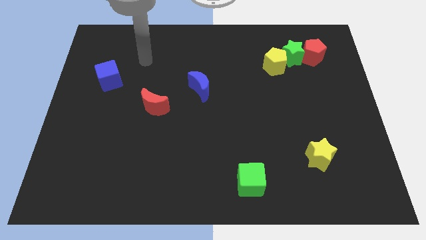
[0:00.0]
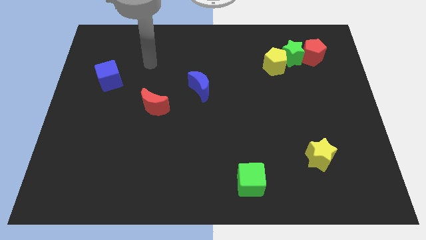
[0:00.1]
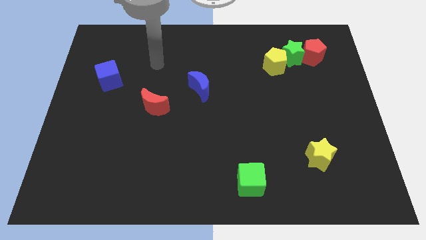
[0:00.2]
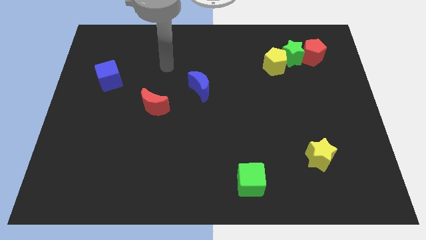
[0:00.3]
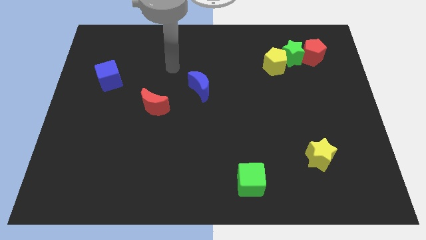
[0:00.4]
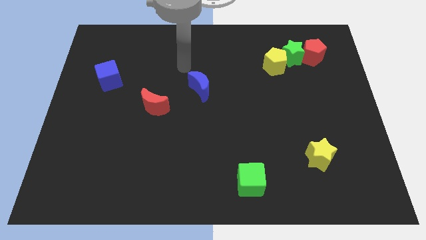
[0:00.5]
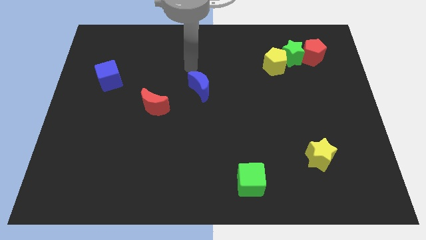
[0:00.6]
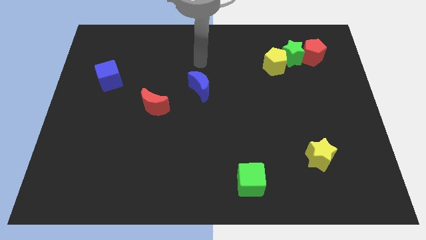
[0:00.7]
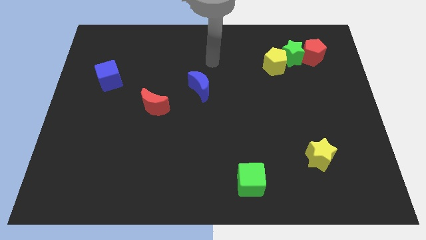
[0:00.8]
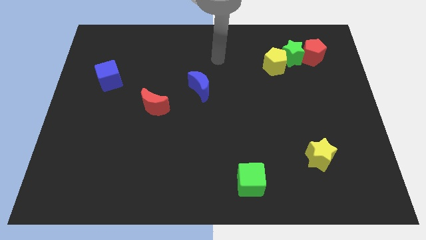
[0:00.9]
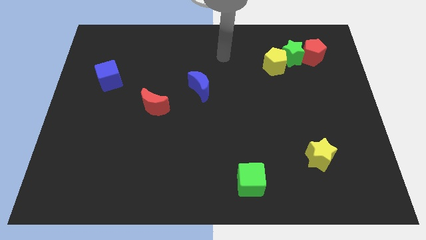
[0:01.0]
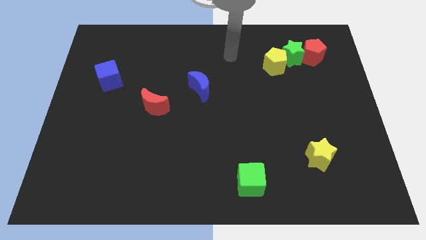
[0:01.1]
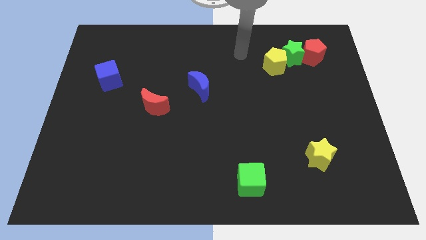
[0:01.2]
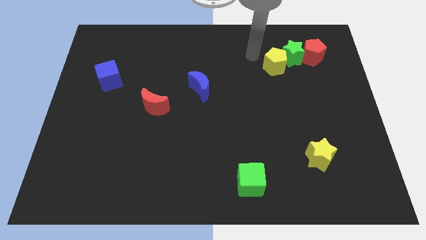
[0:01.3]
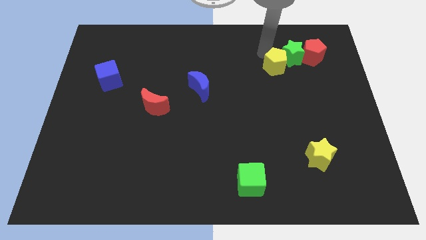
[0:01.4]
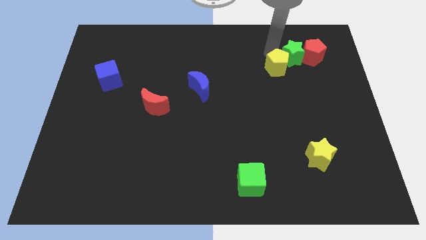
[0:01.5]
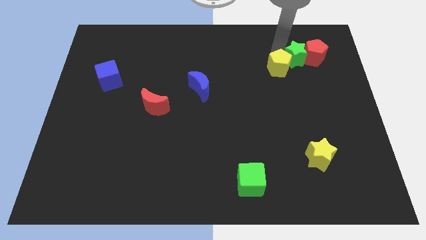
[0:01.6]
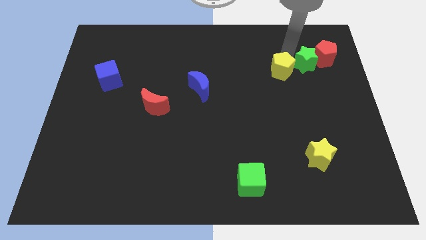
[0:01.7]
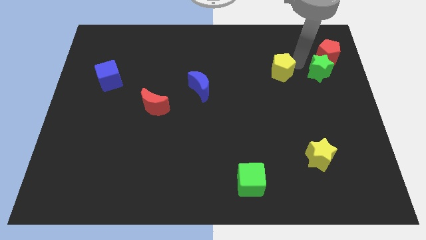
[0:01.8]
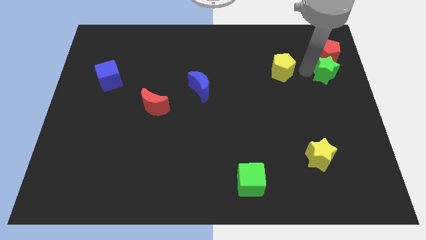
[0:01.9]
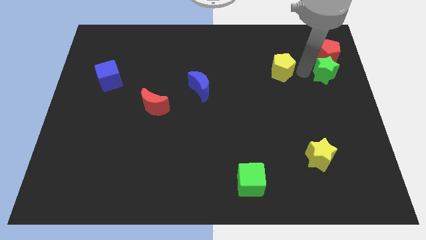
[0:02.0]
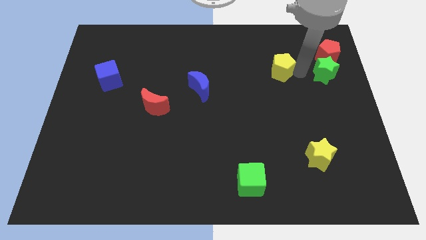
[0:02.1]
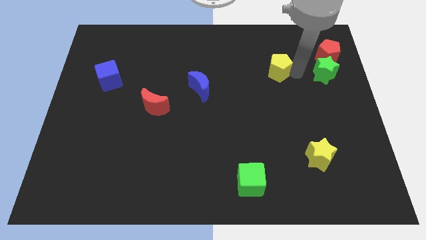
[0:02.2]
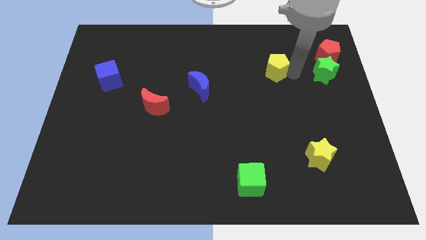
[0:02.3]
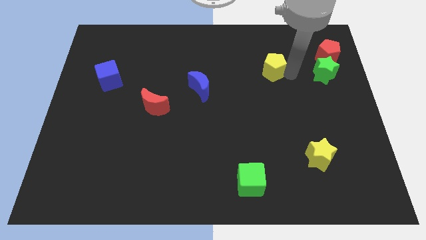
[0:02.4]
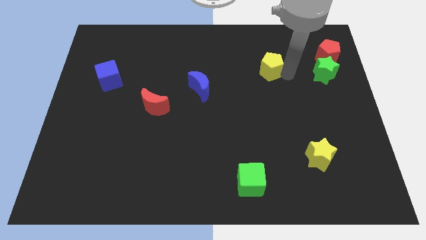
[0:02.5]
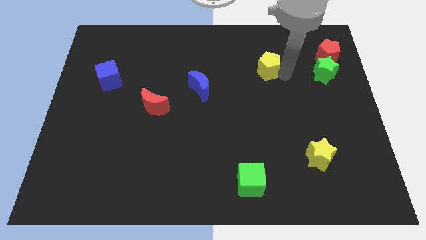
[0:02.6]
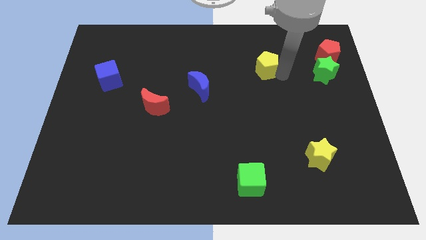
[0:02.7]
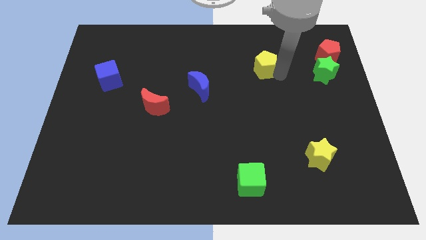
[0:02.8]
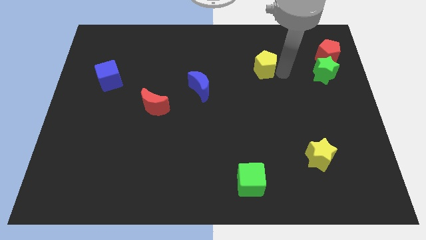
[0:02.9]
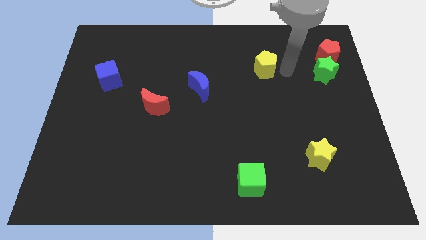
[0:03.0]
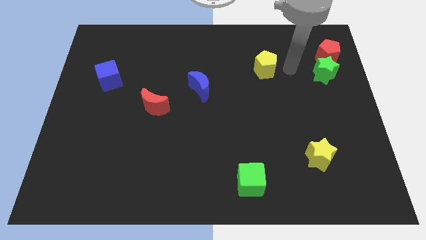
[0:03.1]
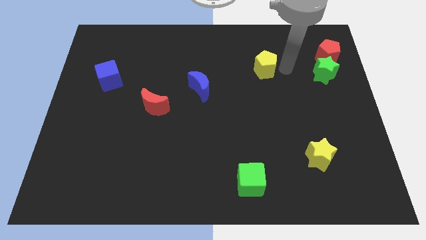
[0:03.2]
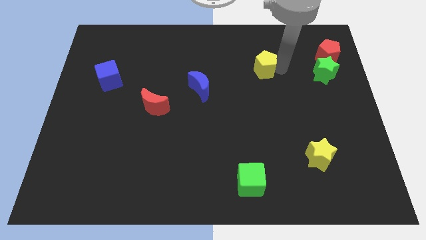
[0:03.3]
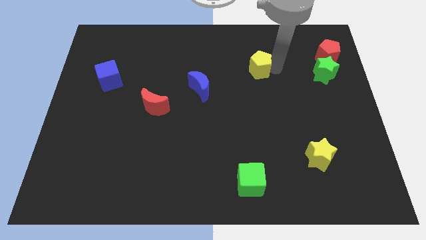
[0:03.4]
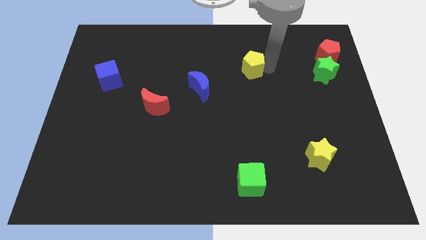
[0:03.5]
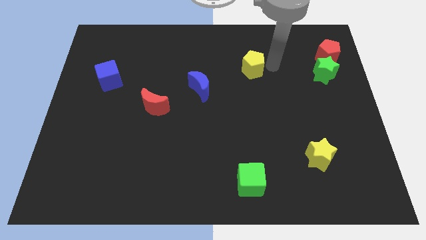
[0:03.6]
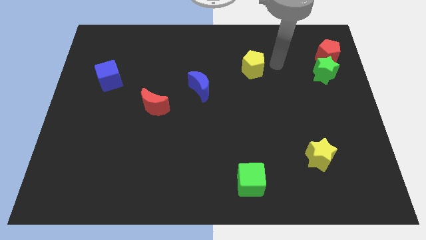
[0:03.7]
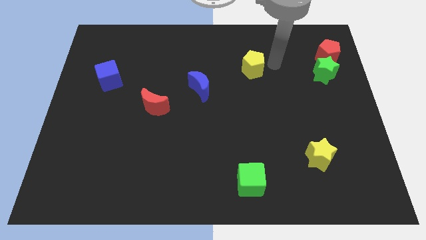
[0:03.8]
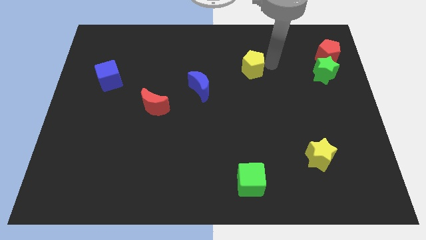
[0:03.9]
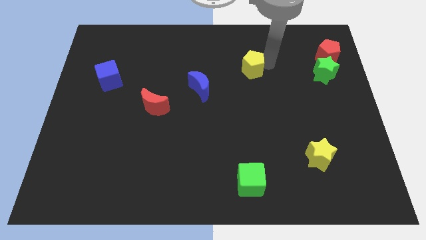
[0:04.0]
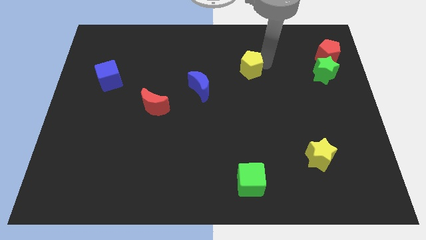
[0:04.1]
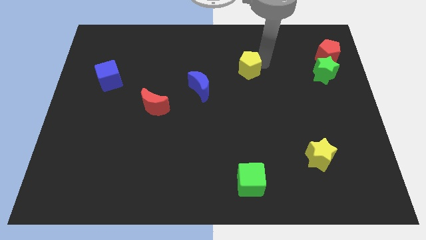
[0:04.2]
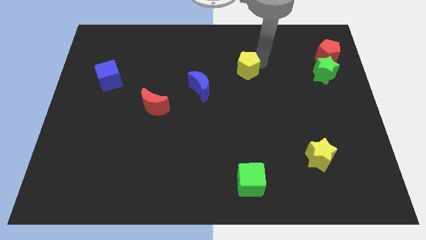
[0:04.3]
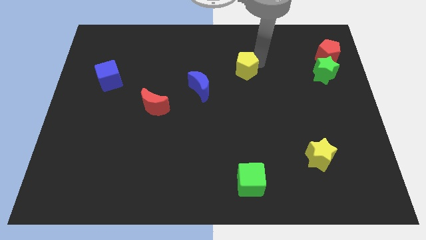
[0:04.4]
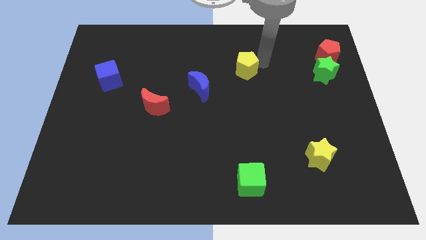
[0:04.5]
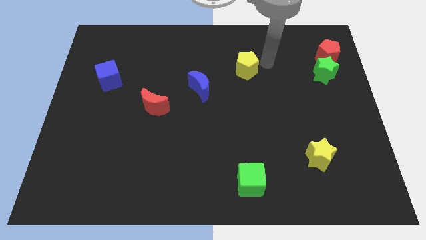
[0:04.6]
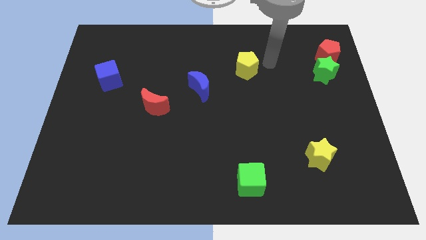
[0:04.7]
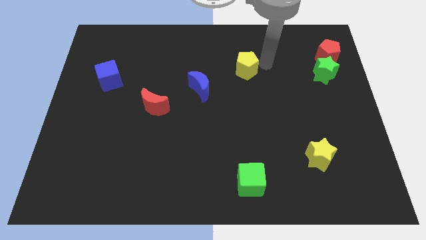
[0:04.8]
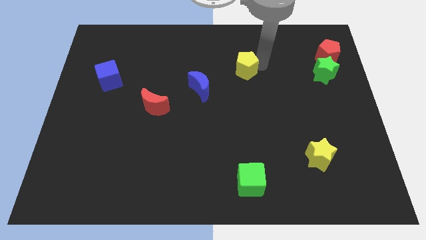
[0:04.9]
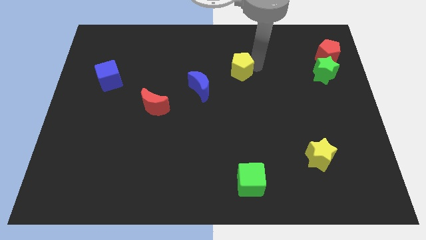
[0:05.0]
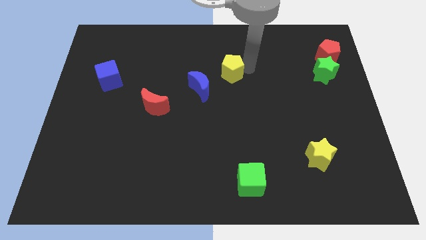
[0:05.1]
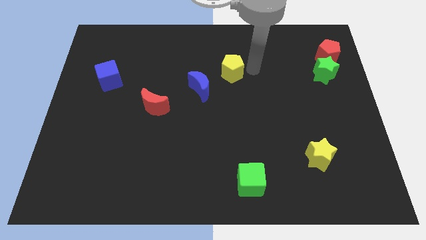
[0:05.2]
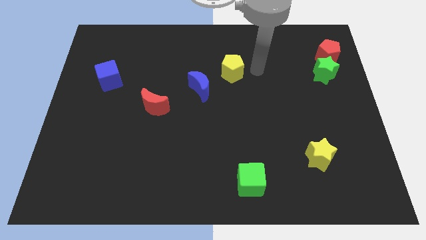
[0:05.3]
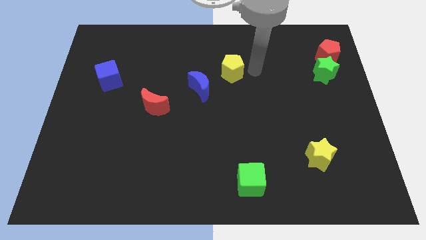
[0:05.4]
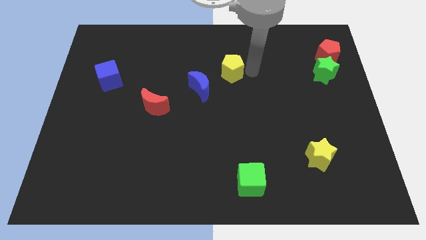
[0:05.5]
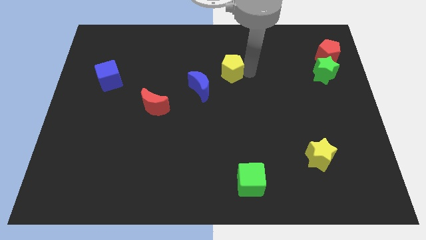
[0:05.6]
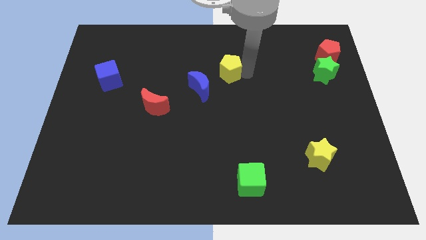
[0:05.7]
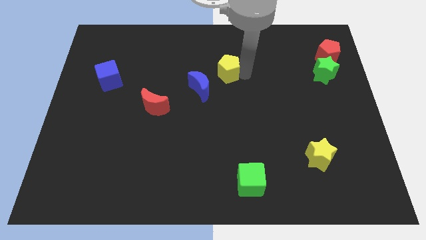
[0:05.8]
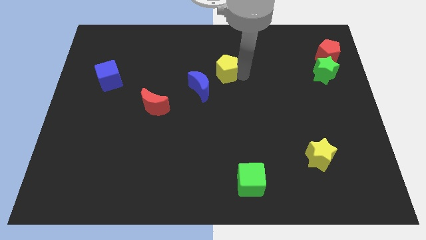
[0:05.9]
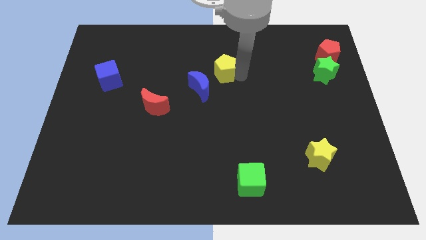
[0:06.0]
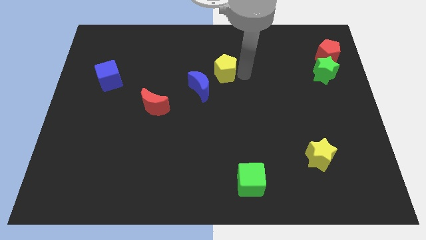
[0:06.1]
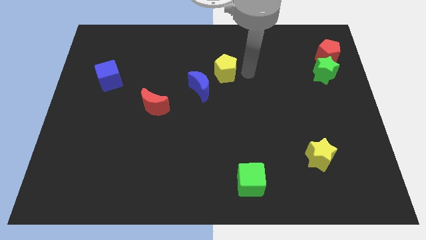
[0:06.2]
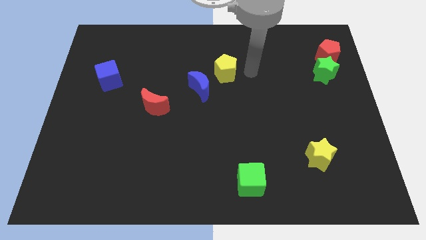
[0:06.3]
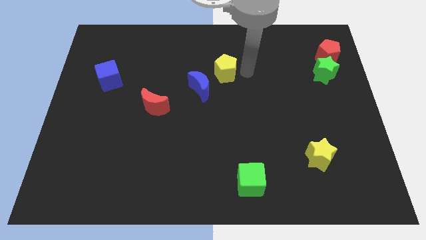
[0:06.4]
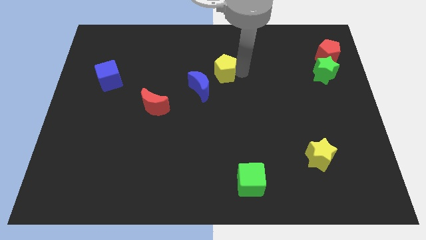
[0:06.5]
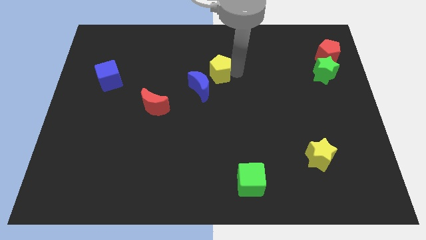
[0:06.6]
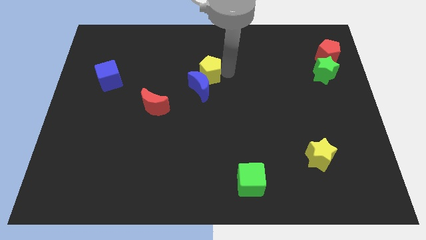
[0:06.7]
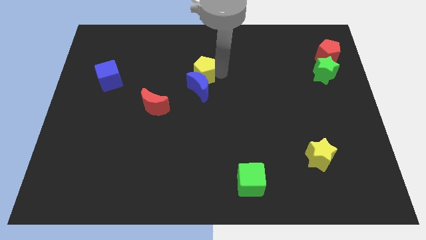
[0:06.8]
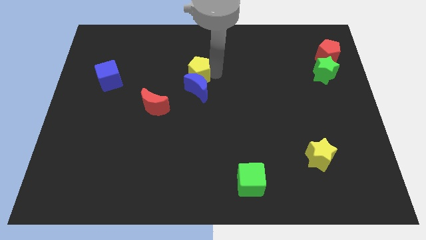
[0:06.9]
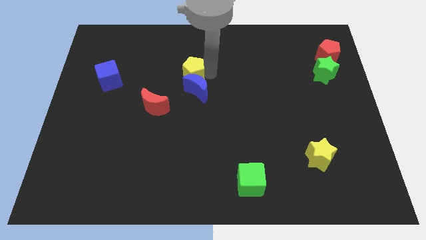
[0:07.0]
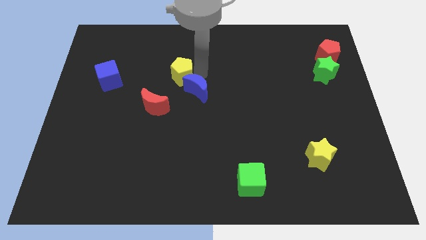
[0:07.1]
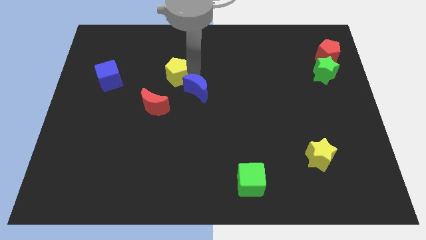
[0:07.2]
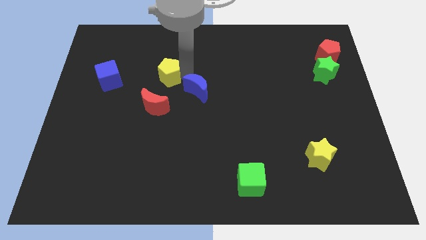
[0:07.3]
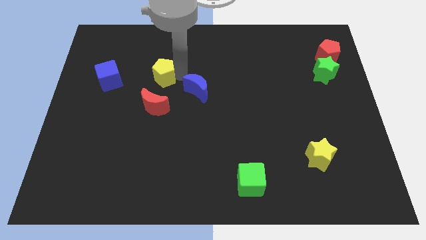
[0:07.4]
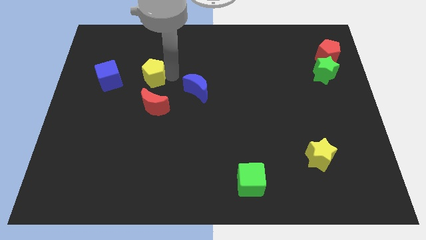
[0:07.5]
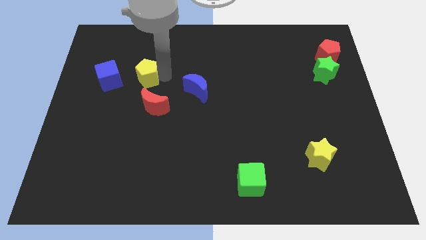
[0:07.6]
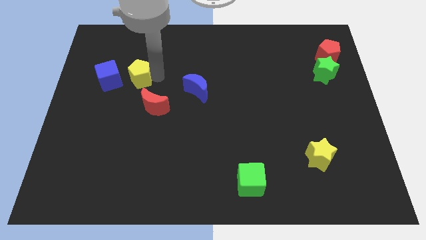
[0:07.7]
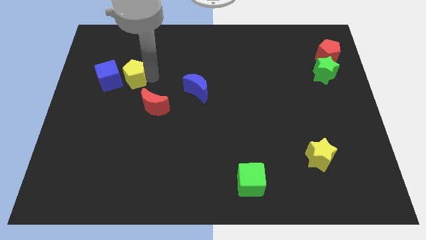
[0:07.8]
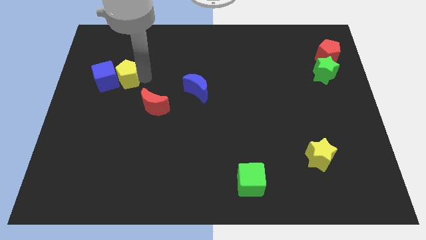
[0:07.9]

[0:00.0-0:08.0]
push the yellow pentagon next to the blue cube
